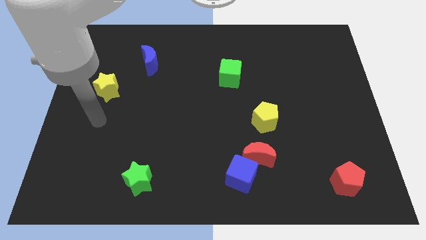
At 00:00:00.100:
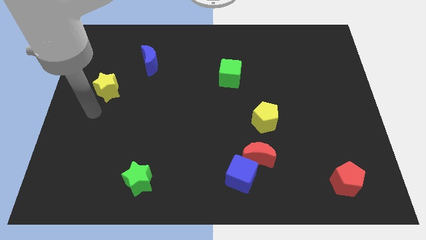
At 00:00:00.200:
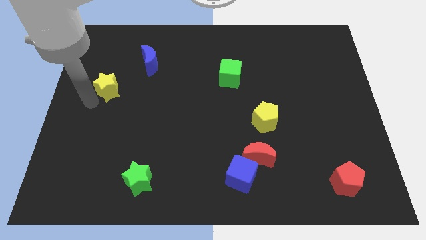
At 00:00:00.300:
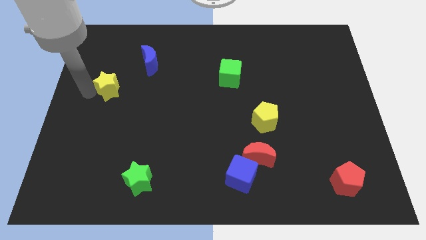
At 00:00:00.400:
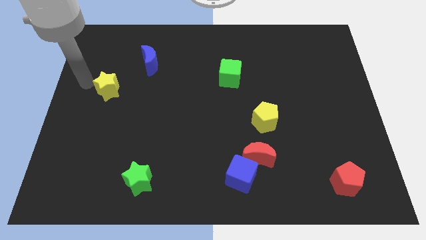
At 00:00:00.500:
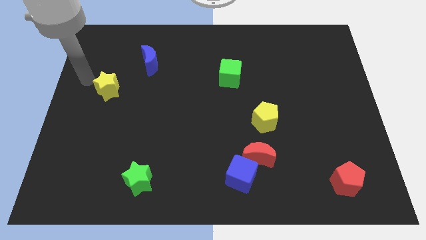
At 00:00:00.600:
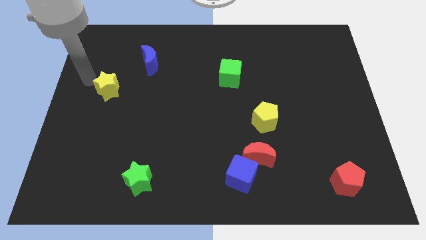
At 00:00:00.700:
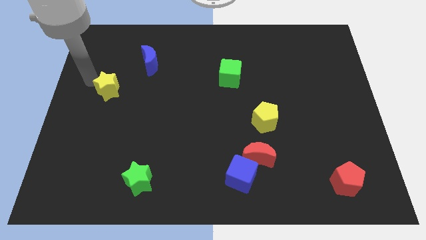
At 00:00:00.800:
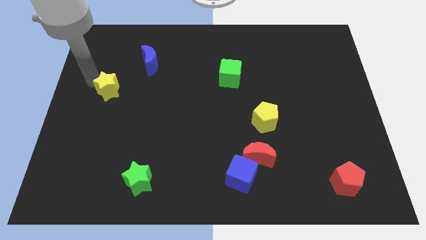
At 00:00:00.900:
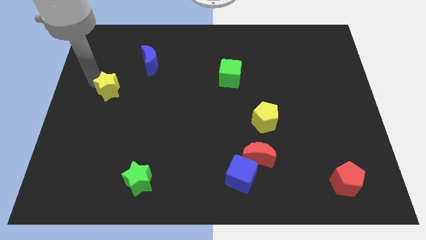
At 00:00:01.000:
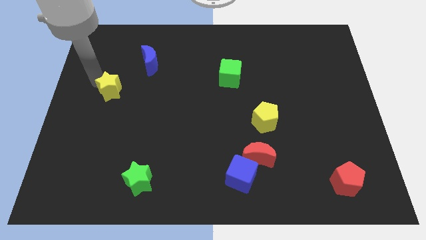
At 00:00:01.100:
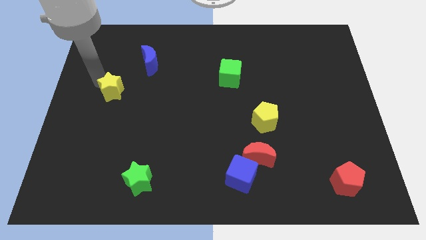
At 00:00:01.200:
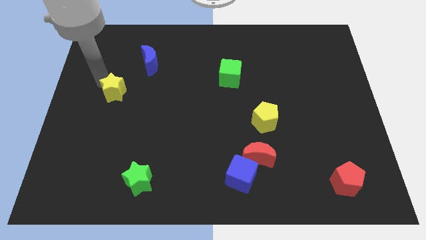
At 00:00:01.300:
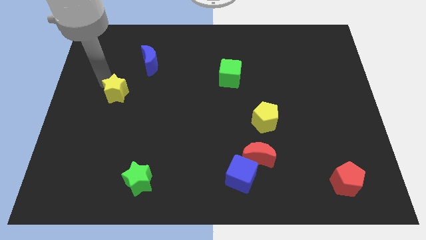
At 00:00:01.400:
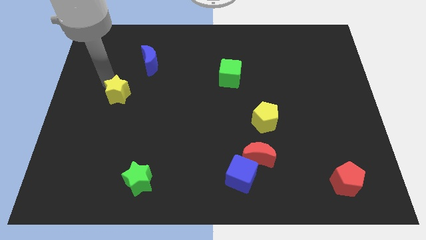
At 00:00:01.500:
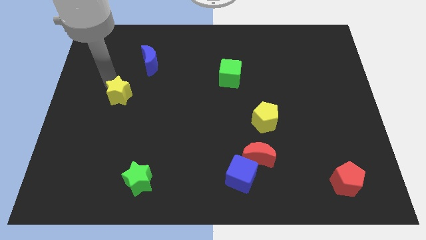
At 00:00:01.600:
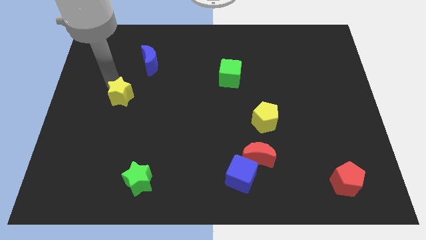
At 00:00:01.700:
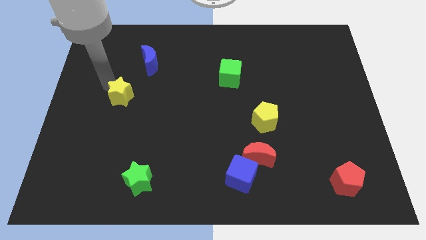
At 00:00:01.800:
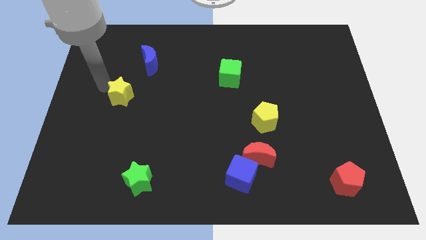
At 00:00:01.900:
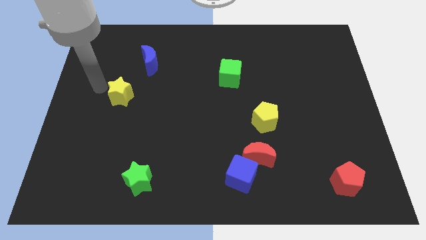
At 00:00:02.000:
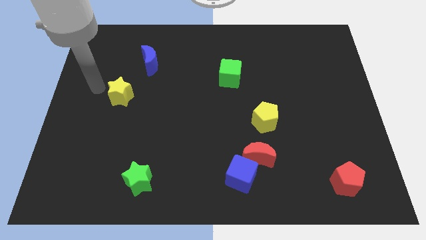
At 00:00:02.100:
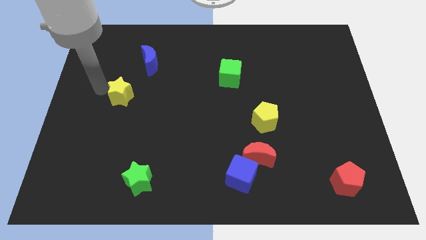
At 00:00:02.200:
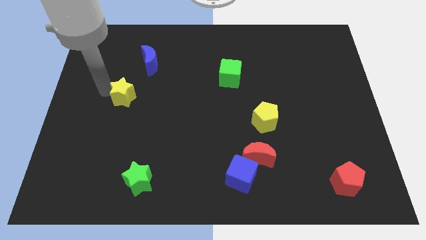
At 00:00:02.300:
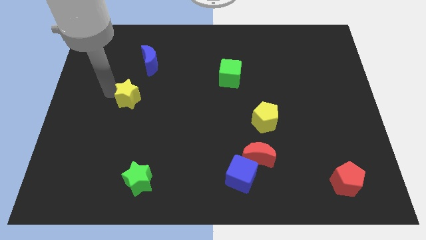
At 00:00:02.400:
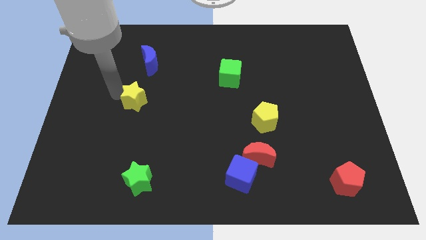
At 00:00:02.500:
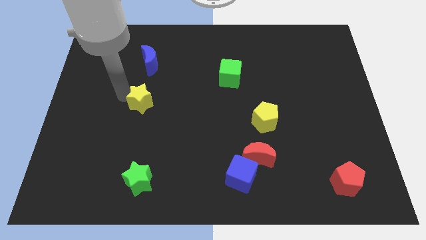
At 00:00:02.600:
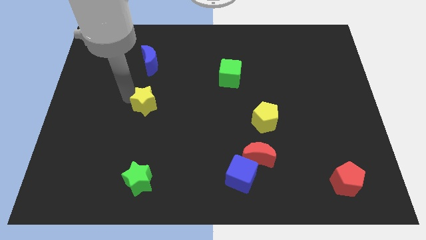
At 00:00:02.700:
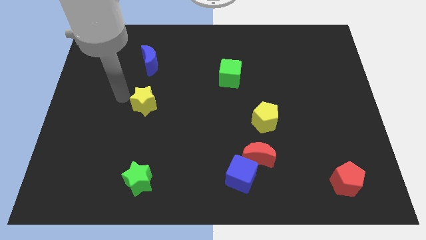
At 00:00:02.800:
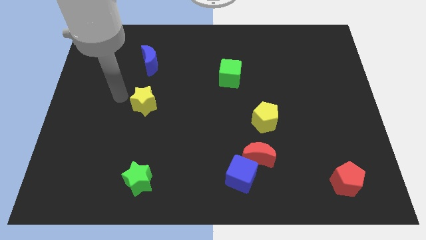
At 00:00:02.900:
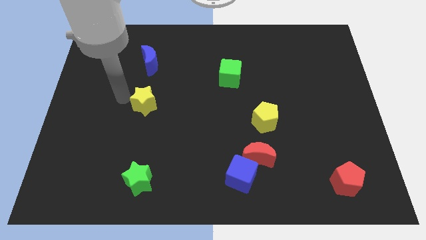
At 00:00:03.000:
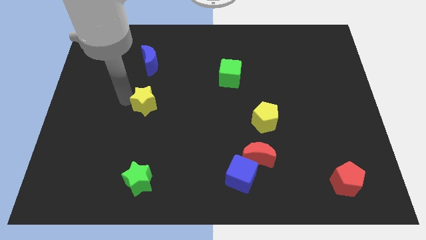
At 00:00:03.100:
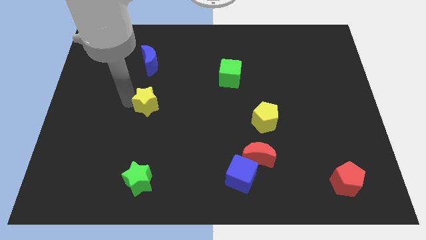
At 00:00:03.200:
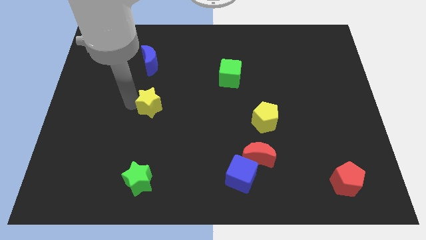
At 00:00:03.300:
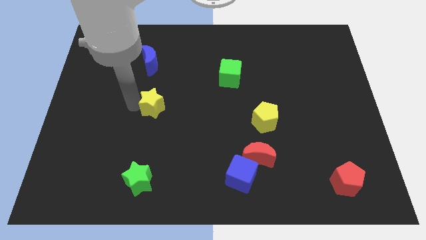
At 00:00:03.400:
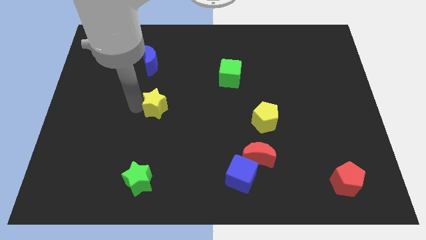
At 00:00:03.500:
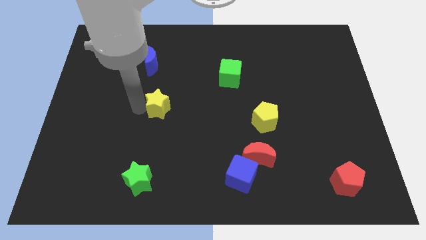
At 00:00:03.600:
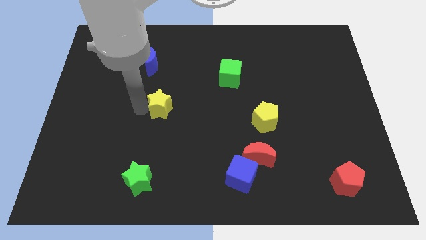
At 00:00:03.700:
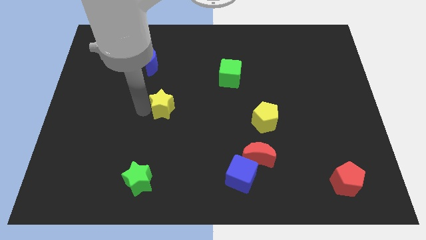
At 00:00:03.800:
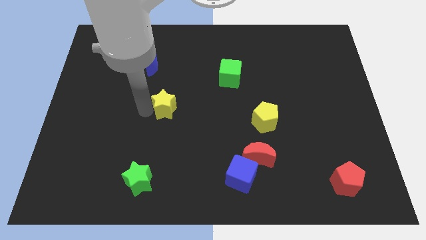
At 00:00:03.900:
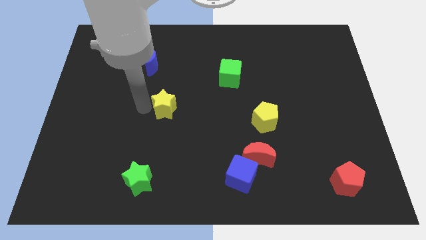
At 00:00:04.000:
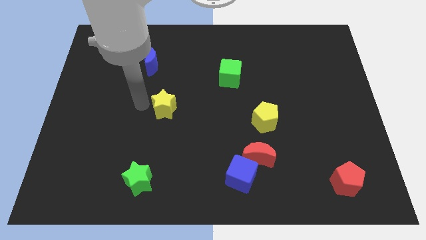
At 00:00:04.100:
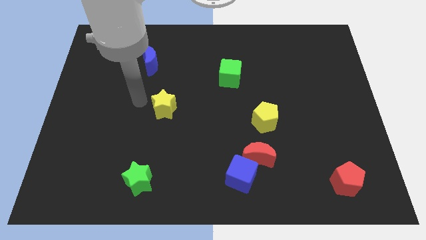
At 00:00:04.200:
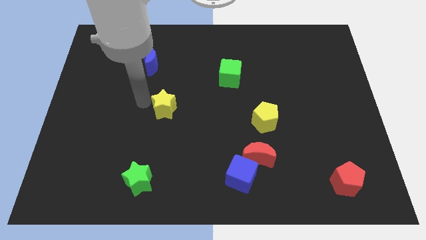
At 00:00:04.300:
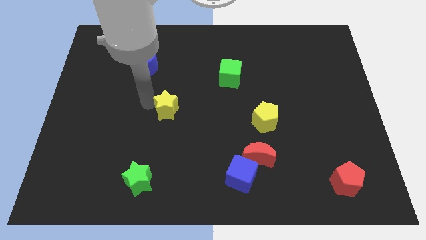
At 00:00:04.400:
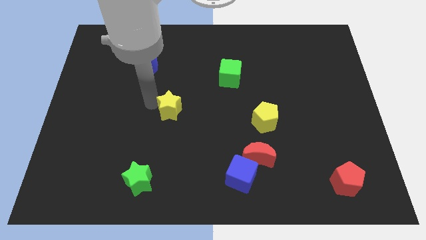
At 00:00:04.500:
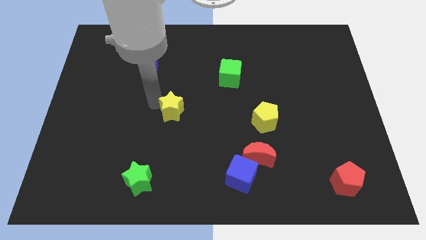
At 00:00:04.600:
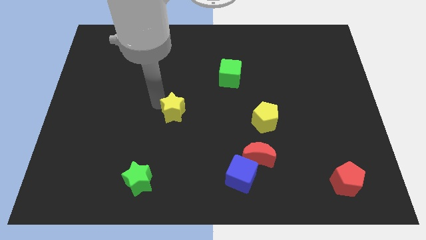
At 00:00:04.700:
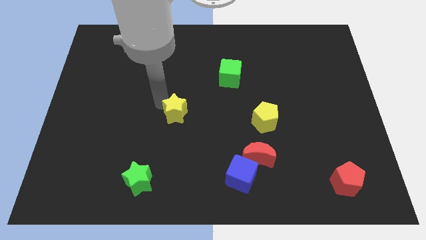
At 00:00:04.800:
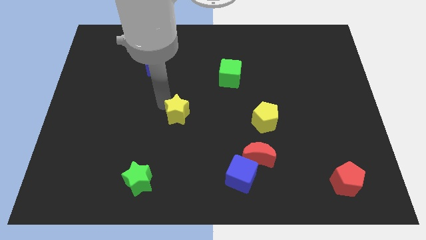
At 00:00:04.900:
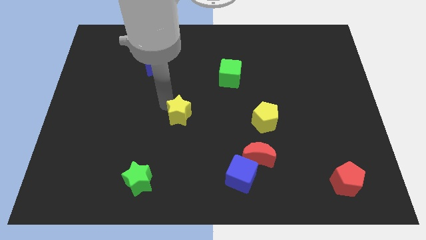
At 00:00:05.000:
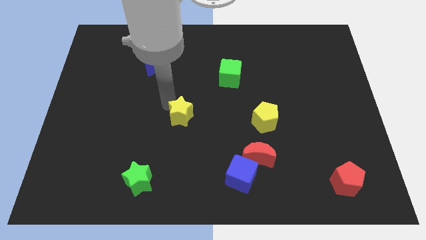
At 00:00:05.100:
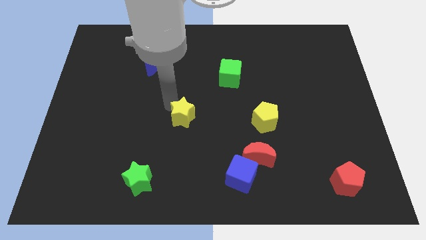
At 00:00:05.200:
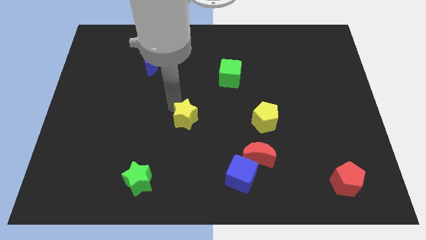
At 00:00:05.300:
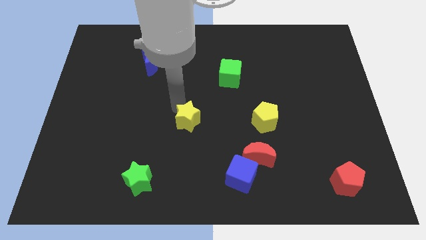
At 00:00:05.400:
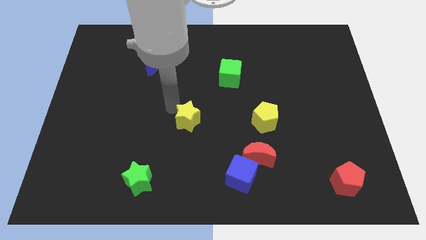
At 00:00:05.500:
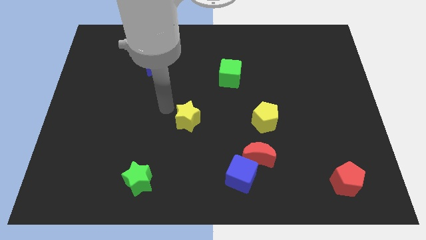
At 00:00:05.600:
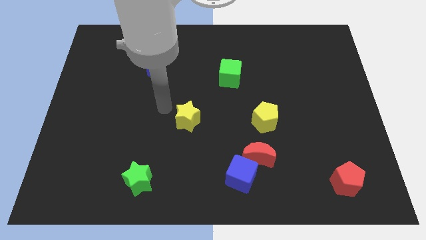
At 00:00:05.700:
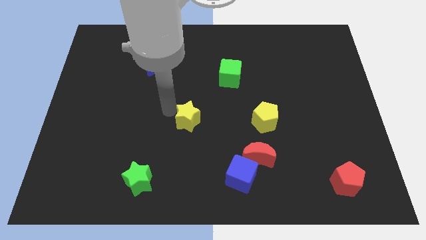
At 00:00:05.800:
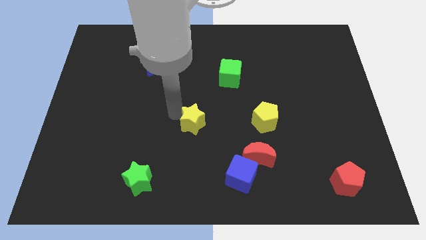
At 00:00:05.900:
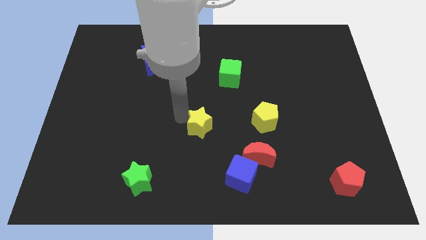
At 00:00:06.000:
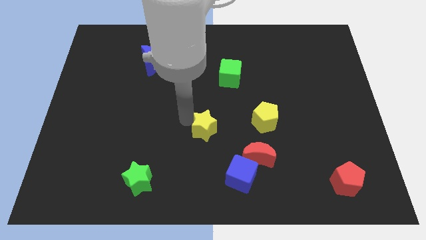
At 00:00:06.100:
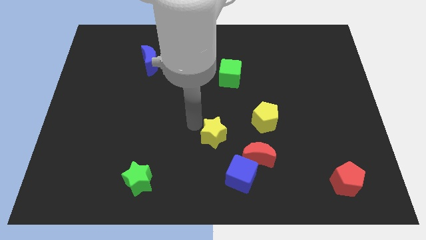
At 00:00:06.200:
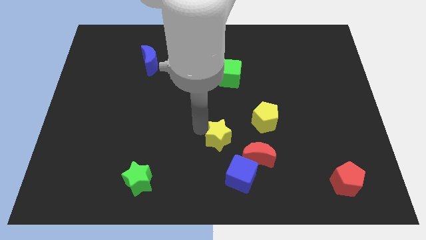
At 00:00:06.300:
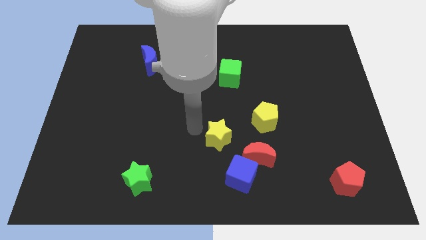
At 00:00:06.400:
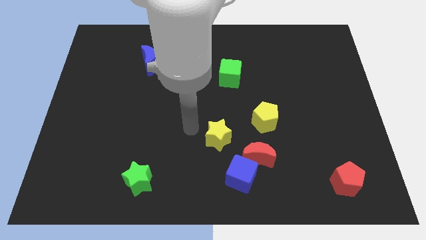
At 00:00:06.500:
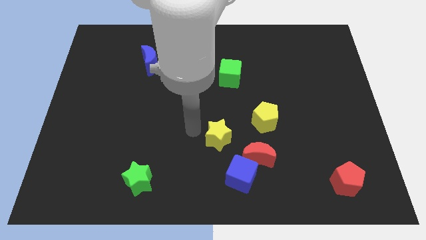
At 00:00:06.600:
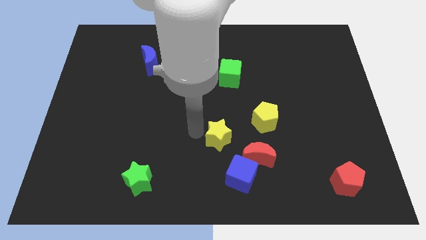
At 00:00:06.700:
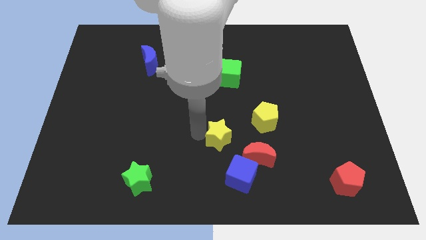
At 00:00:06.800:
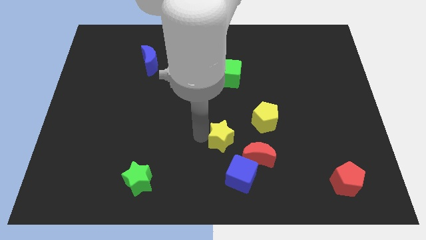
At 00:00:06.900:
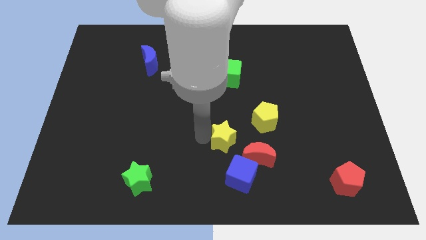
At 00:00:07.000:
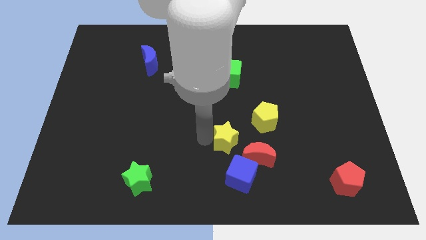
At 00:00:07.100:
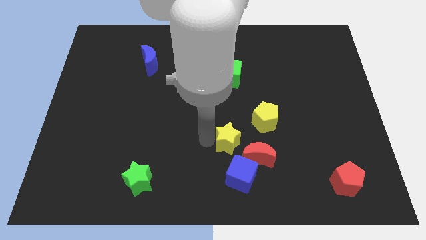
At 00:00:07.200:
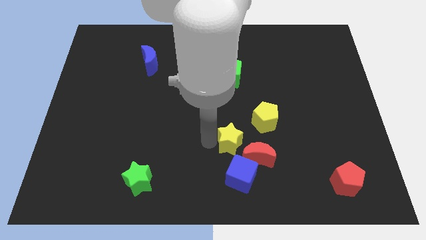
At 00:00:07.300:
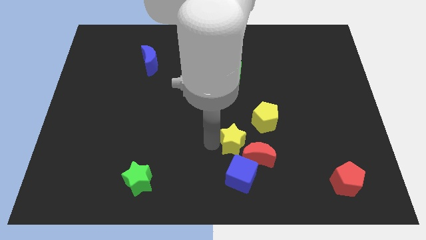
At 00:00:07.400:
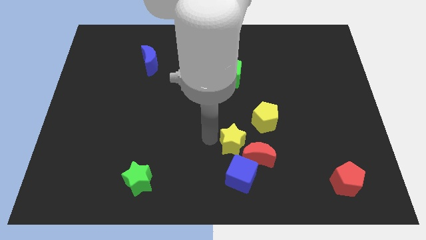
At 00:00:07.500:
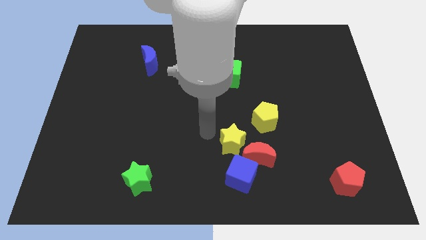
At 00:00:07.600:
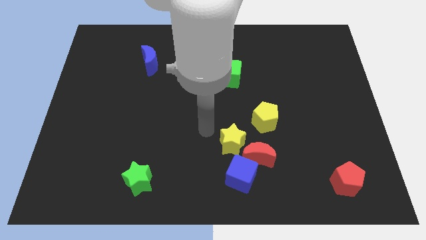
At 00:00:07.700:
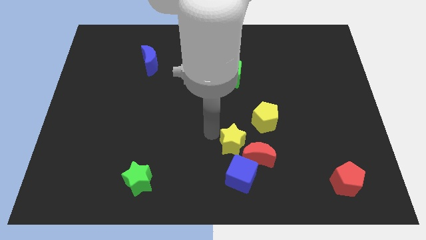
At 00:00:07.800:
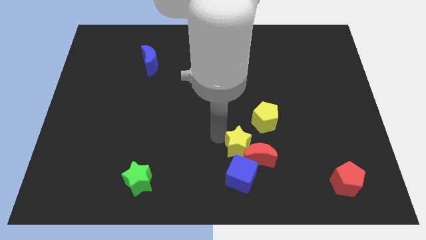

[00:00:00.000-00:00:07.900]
push the yellow star to the red moon
